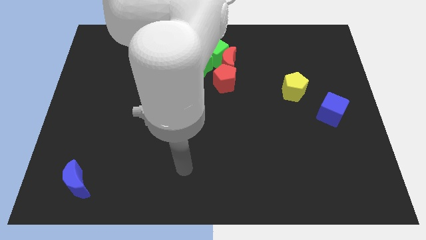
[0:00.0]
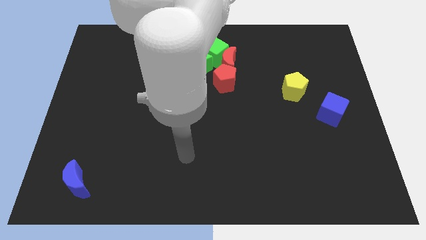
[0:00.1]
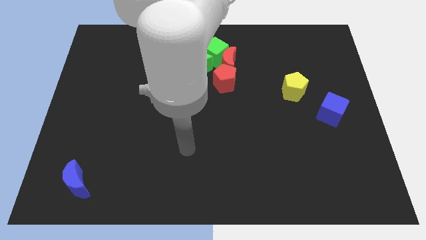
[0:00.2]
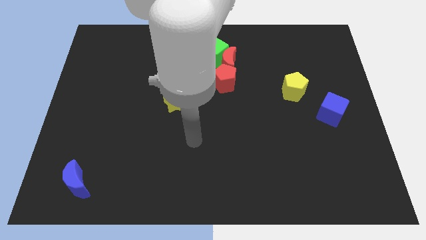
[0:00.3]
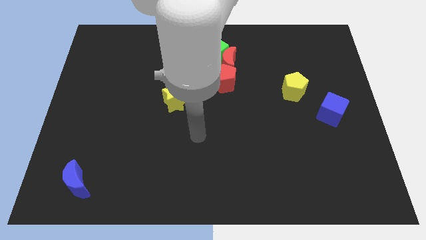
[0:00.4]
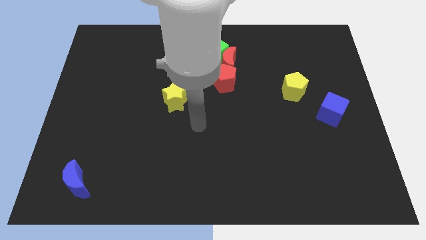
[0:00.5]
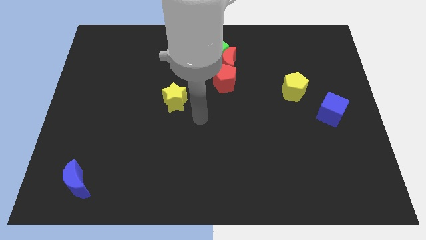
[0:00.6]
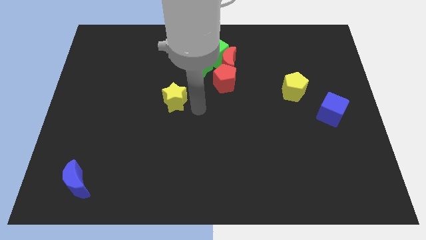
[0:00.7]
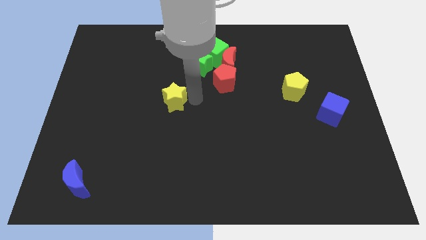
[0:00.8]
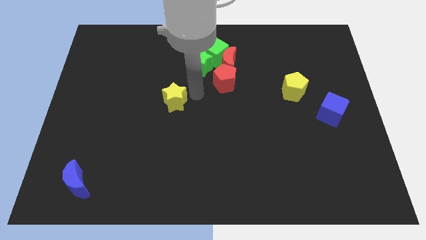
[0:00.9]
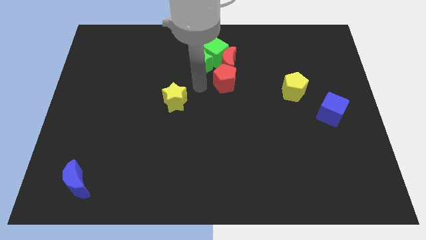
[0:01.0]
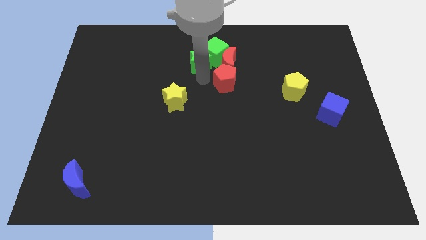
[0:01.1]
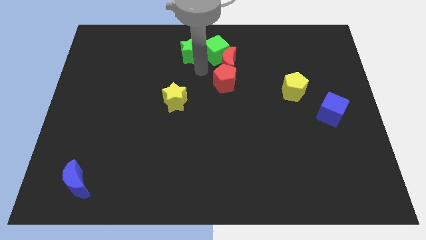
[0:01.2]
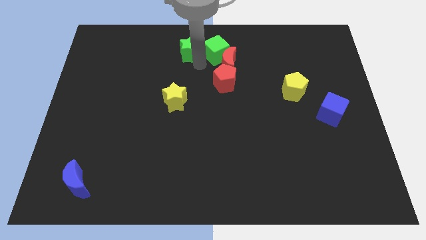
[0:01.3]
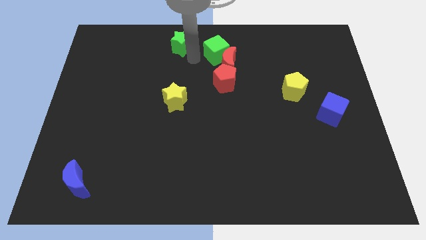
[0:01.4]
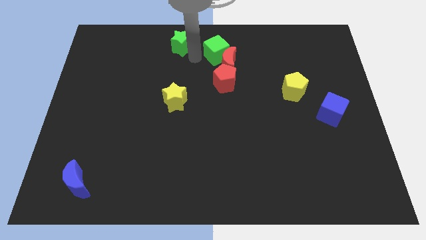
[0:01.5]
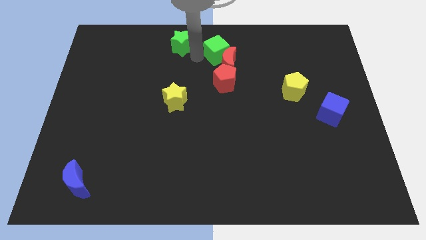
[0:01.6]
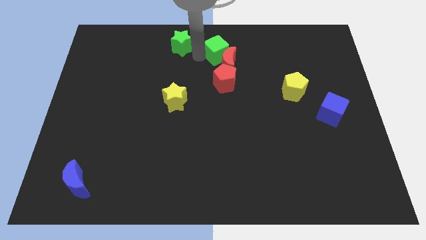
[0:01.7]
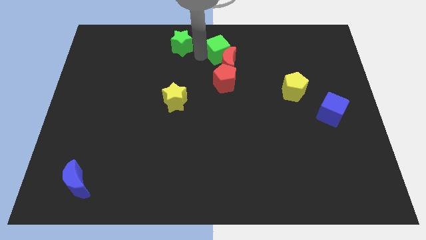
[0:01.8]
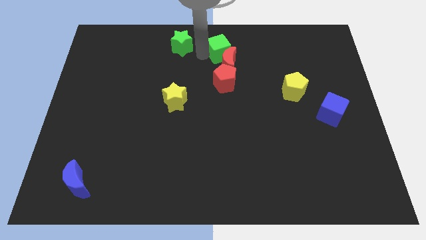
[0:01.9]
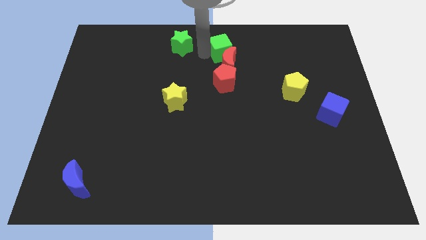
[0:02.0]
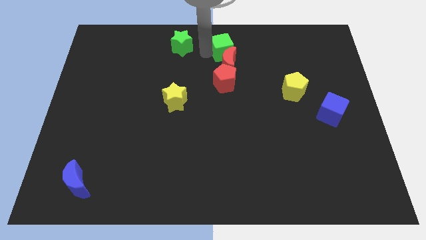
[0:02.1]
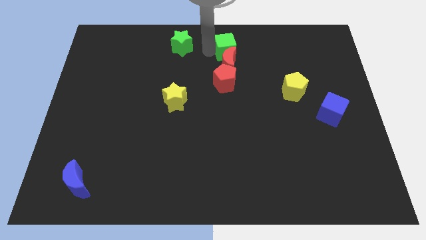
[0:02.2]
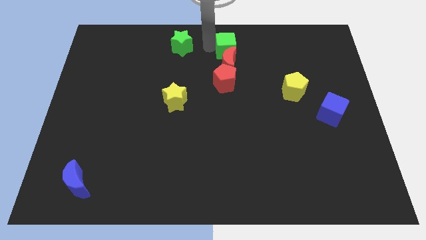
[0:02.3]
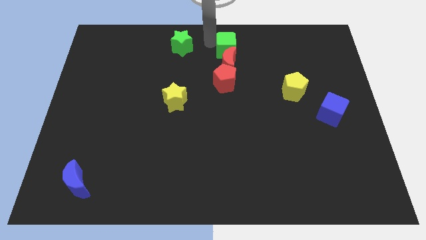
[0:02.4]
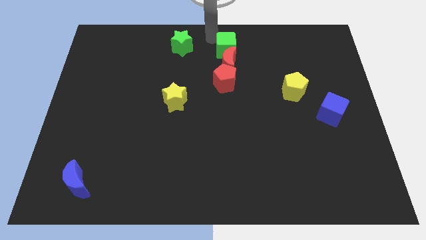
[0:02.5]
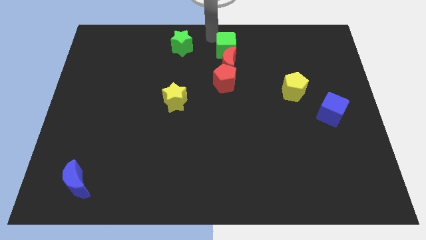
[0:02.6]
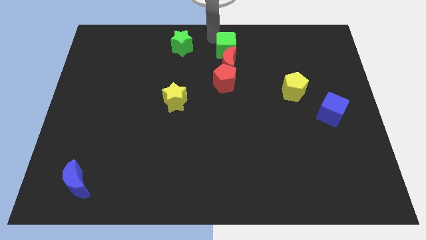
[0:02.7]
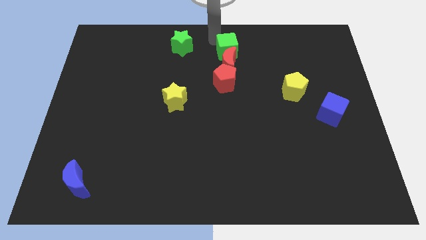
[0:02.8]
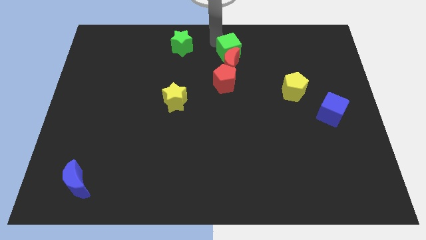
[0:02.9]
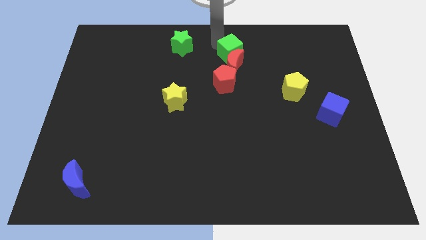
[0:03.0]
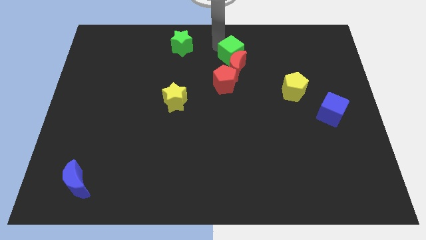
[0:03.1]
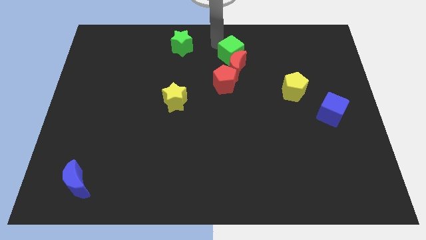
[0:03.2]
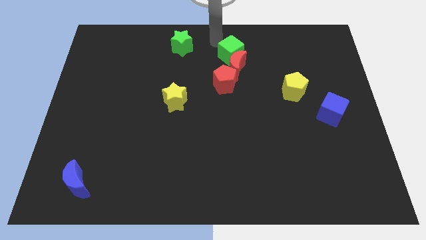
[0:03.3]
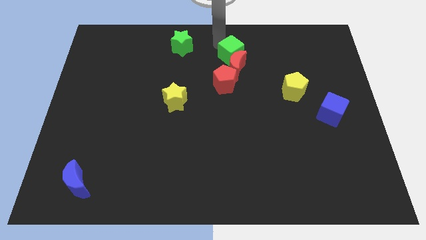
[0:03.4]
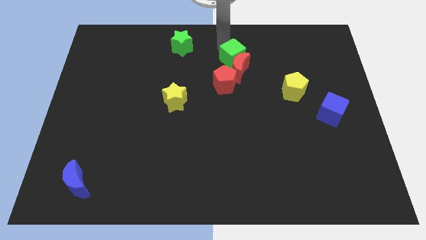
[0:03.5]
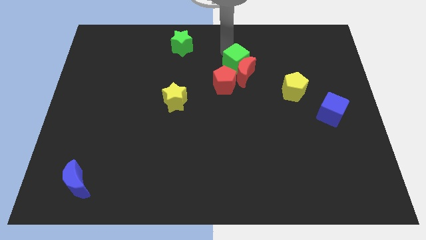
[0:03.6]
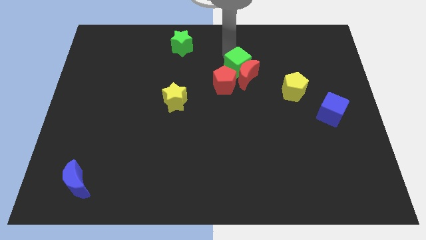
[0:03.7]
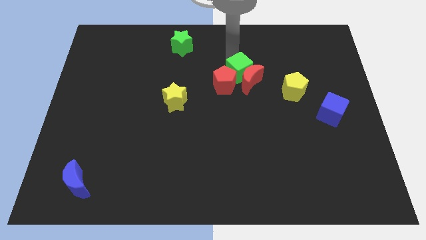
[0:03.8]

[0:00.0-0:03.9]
slide the green cube diagonally downwards and right a bit

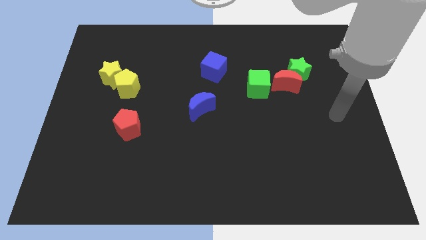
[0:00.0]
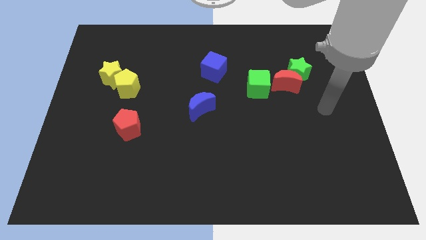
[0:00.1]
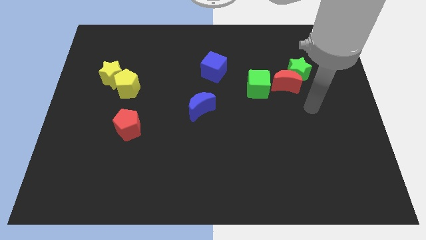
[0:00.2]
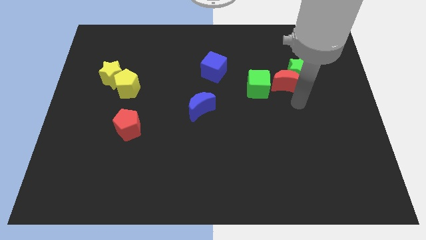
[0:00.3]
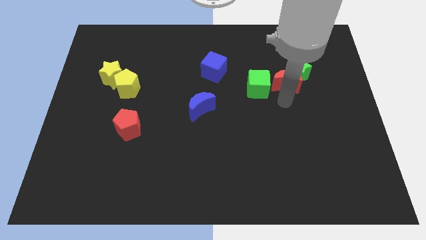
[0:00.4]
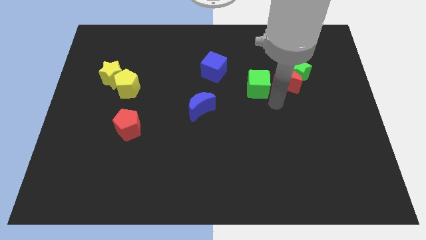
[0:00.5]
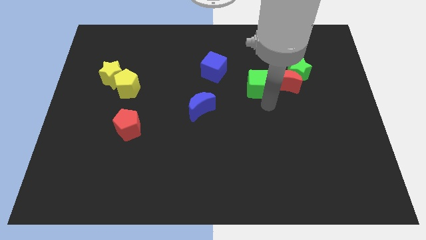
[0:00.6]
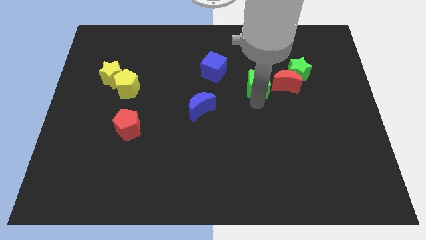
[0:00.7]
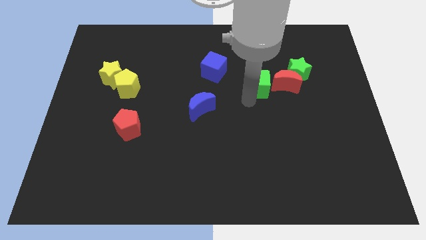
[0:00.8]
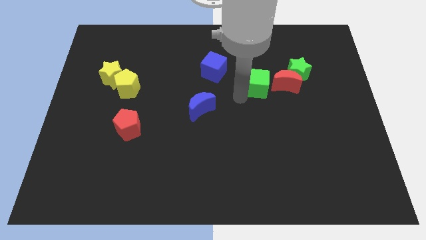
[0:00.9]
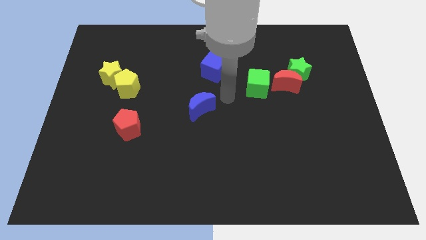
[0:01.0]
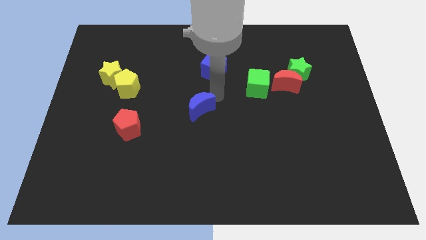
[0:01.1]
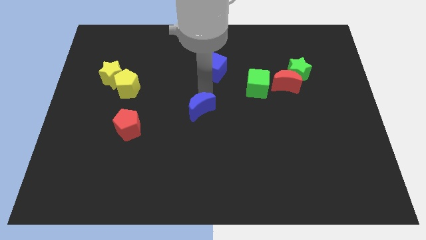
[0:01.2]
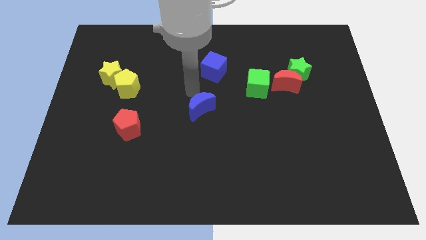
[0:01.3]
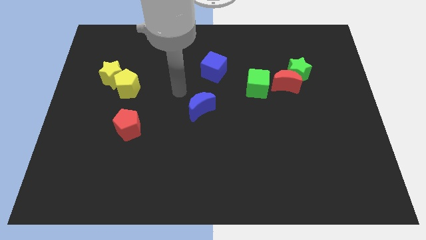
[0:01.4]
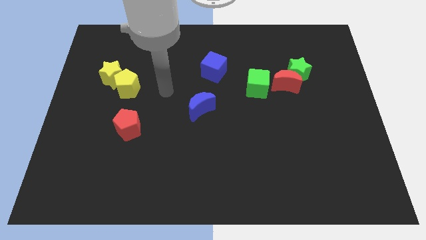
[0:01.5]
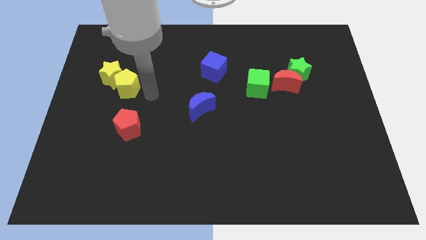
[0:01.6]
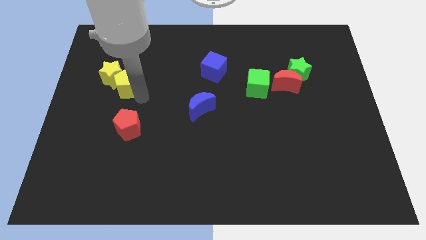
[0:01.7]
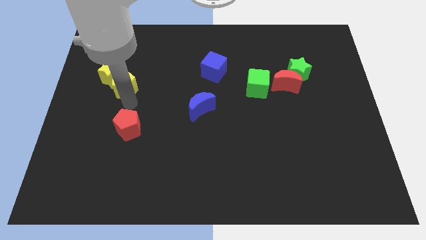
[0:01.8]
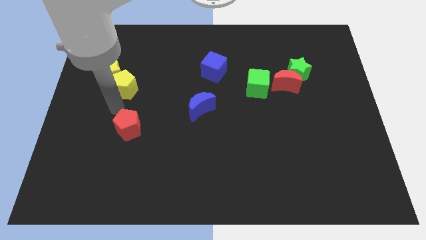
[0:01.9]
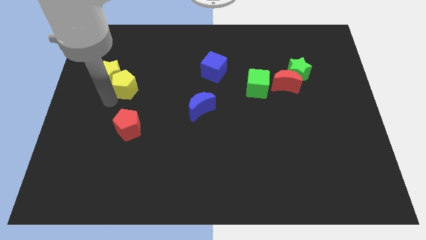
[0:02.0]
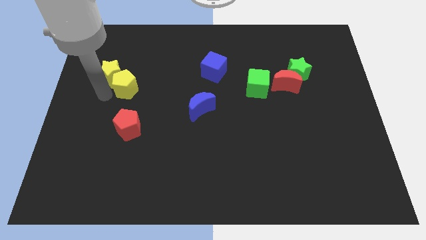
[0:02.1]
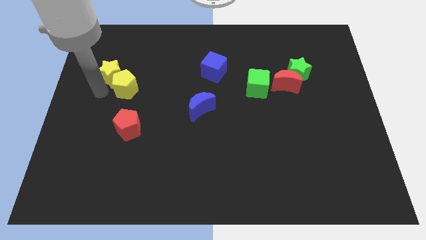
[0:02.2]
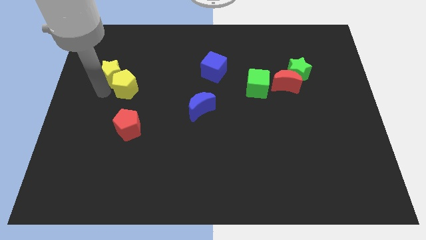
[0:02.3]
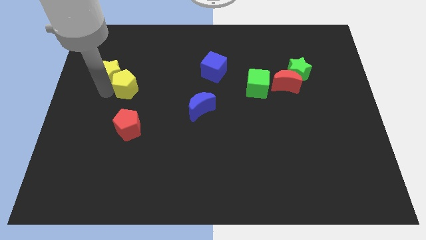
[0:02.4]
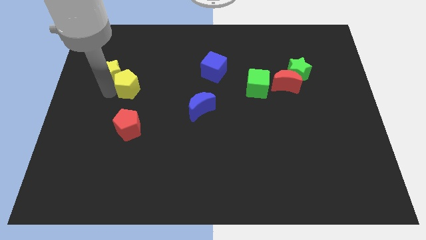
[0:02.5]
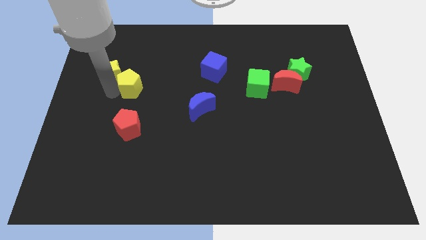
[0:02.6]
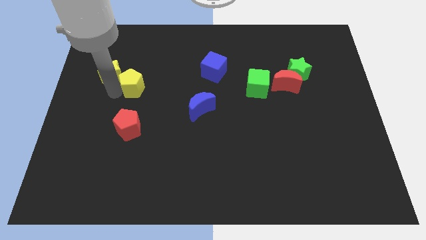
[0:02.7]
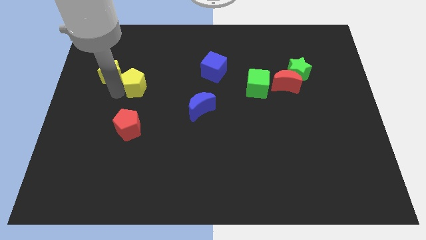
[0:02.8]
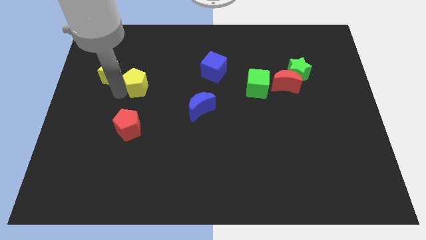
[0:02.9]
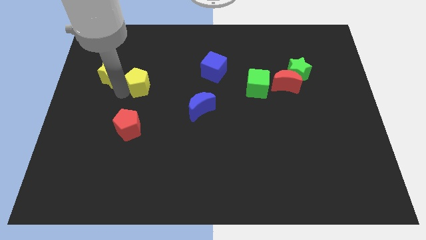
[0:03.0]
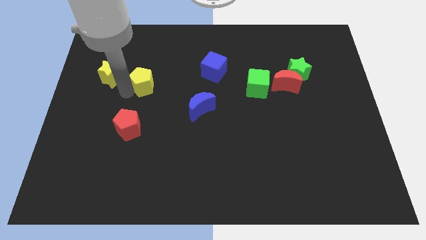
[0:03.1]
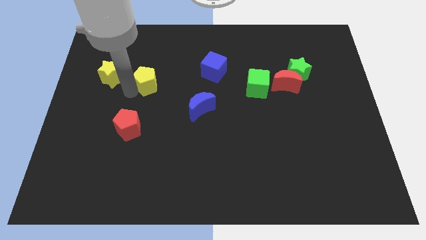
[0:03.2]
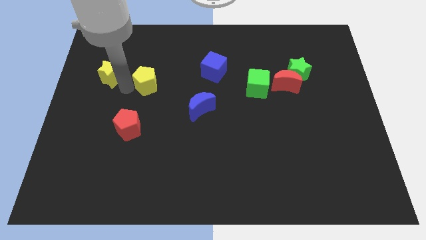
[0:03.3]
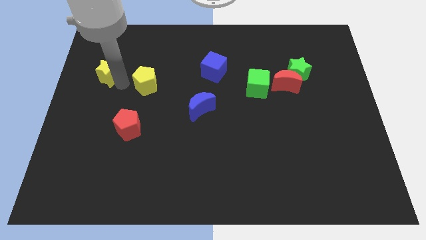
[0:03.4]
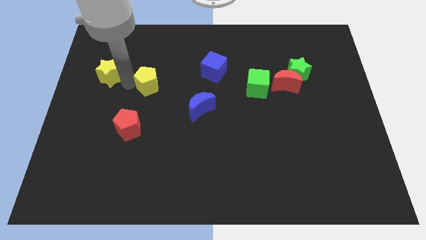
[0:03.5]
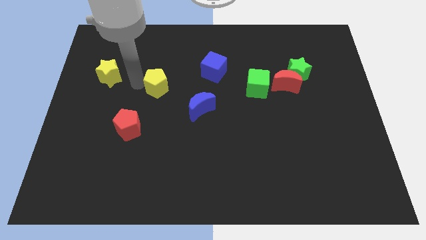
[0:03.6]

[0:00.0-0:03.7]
push the yellow pentagon a bit to the right

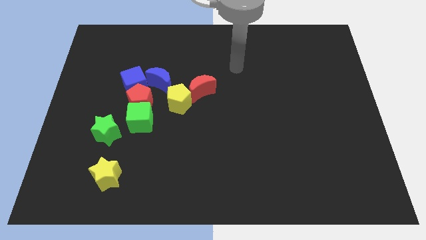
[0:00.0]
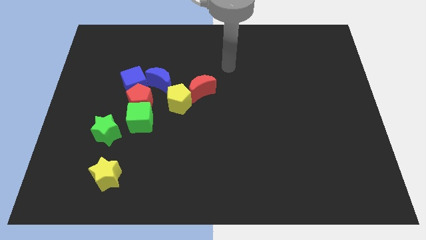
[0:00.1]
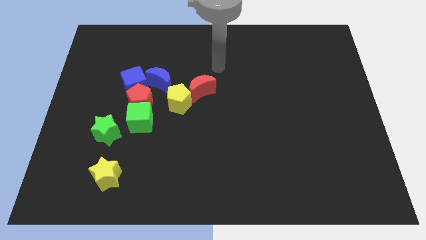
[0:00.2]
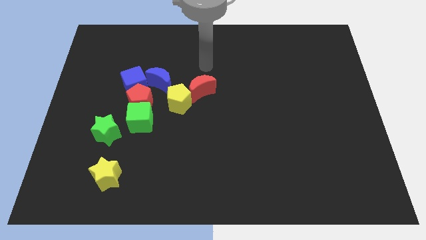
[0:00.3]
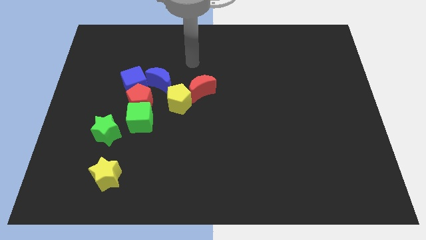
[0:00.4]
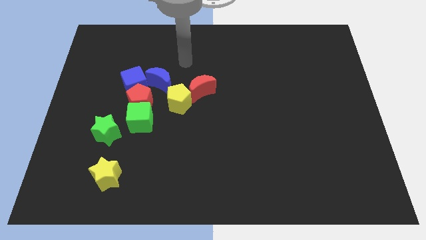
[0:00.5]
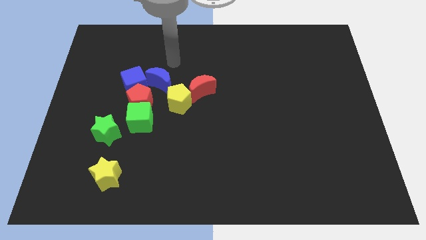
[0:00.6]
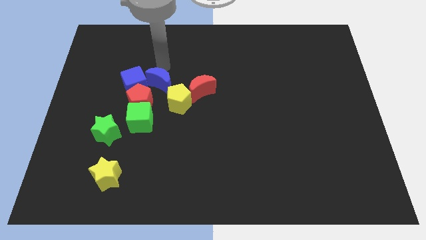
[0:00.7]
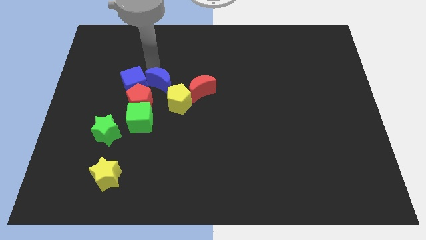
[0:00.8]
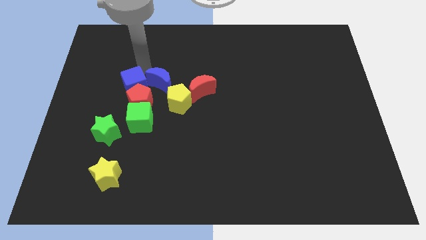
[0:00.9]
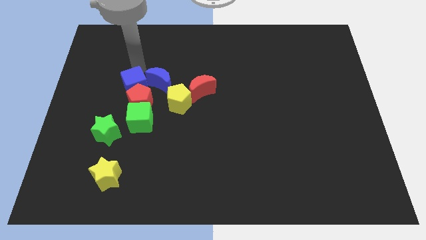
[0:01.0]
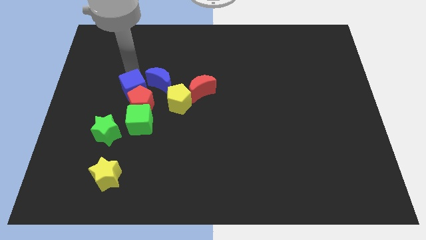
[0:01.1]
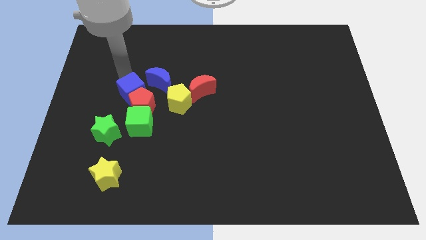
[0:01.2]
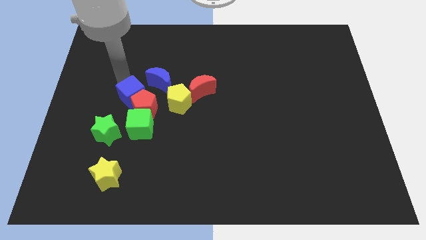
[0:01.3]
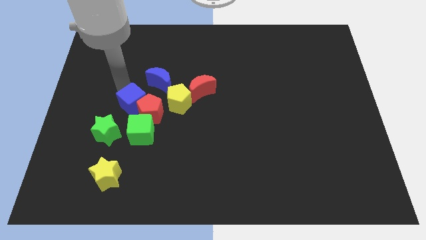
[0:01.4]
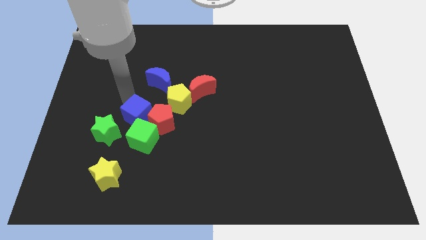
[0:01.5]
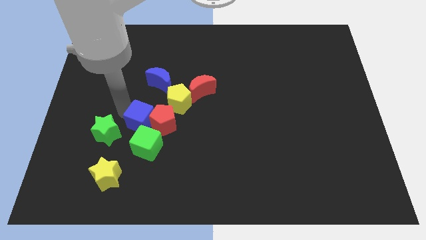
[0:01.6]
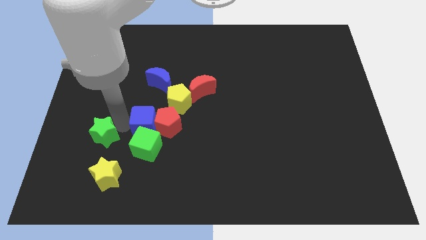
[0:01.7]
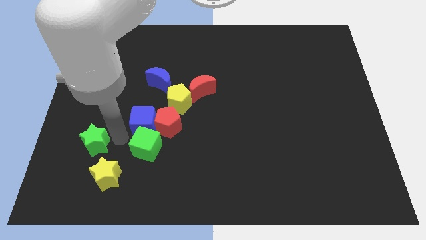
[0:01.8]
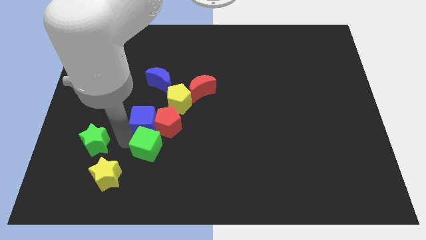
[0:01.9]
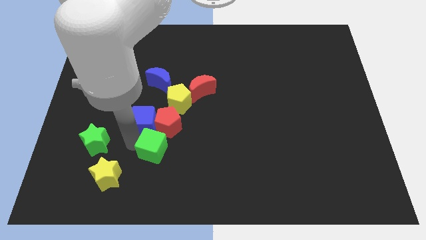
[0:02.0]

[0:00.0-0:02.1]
push the green cube slightly down and then to the right
